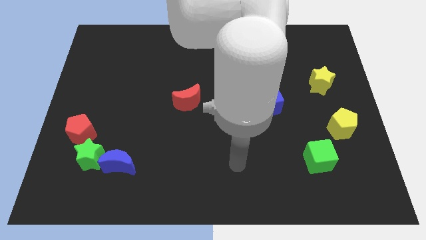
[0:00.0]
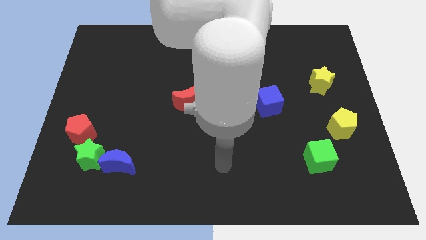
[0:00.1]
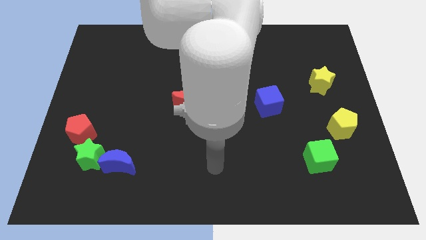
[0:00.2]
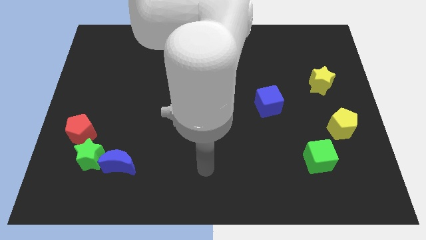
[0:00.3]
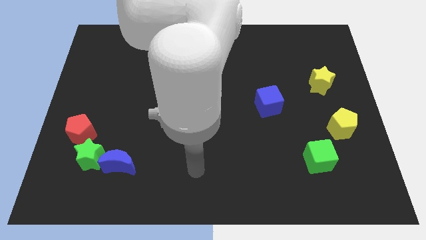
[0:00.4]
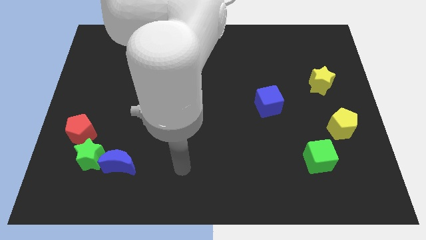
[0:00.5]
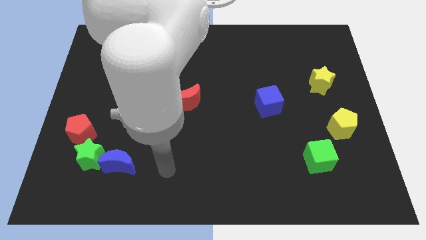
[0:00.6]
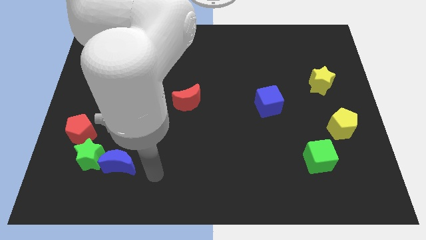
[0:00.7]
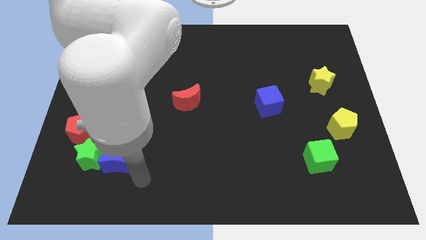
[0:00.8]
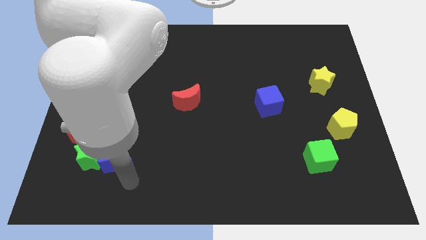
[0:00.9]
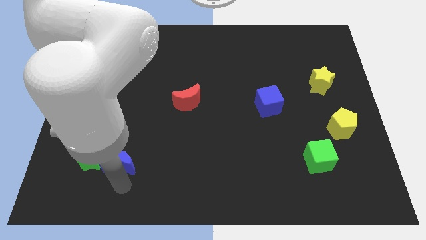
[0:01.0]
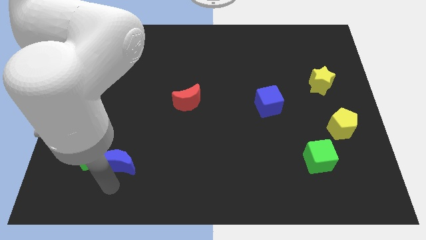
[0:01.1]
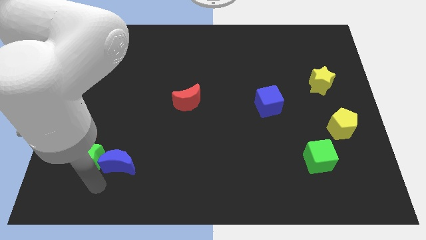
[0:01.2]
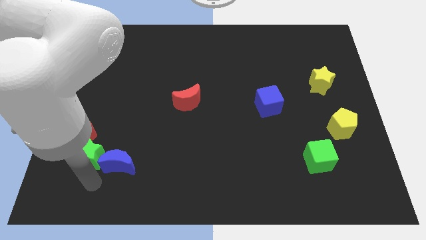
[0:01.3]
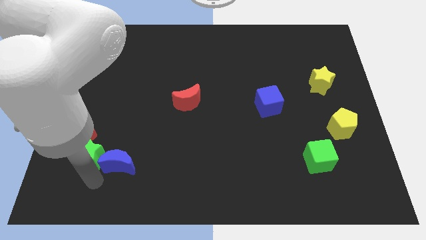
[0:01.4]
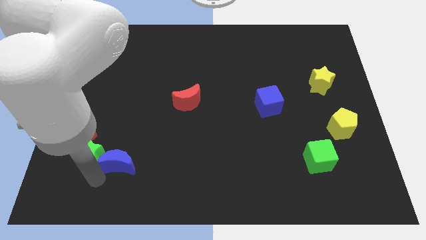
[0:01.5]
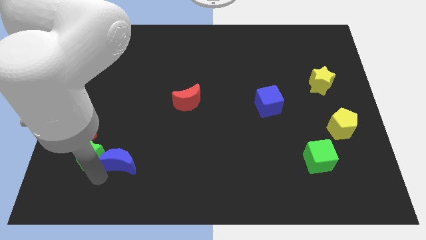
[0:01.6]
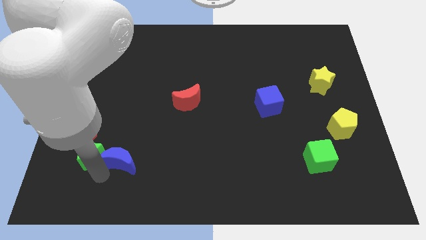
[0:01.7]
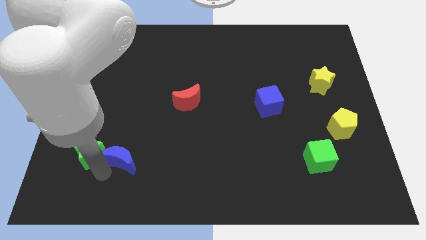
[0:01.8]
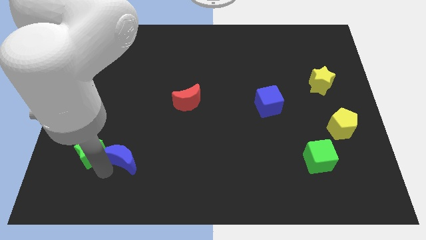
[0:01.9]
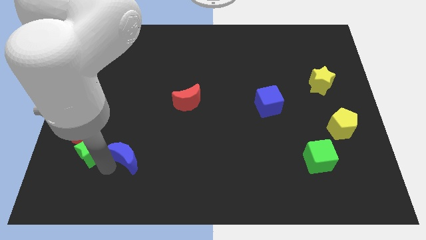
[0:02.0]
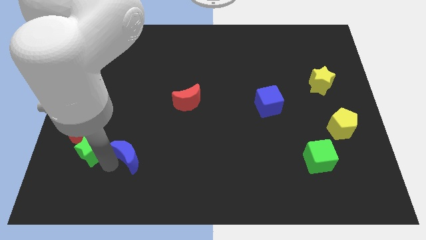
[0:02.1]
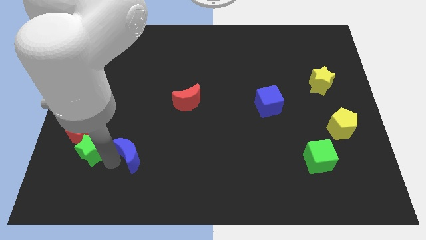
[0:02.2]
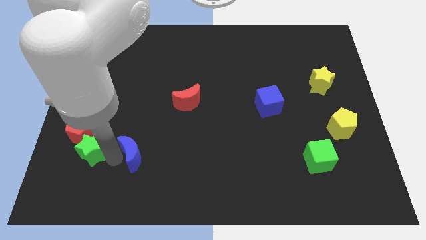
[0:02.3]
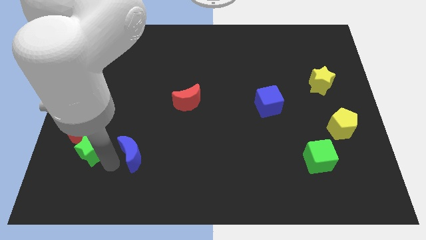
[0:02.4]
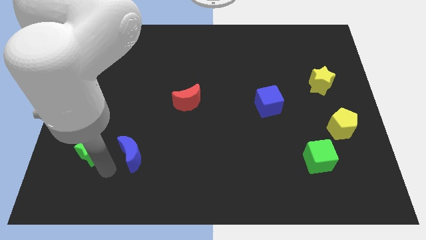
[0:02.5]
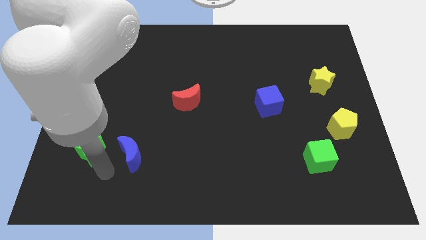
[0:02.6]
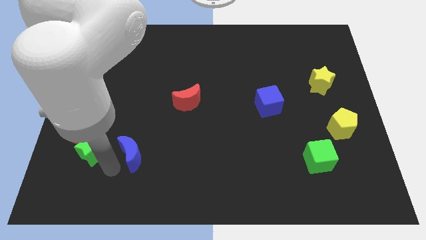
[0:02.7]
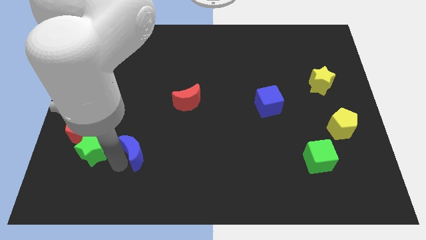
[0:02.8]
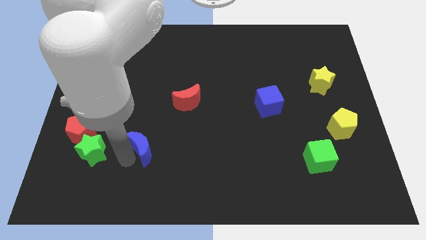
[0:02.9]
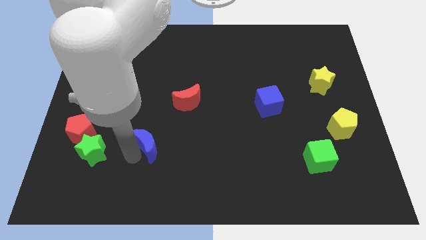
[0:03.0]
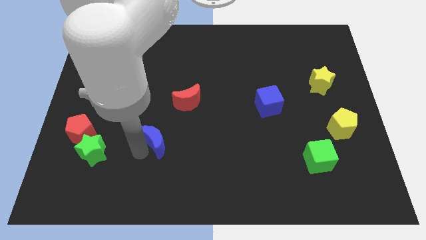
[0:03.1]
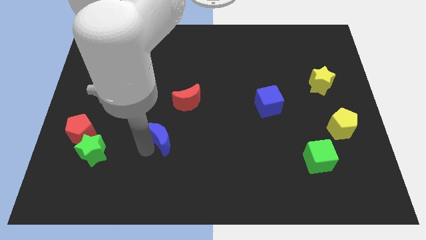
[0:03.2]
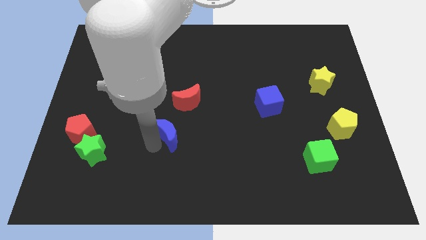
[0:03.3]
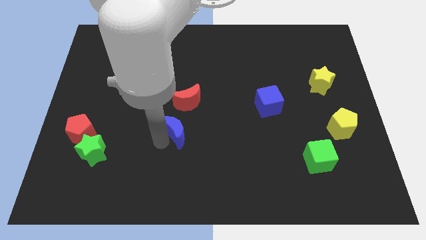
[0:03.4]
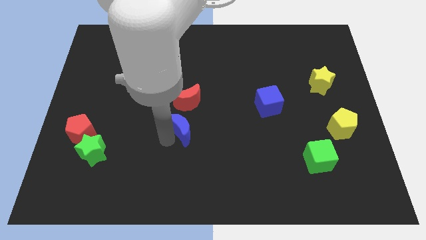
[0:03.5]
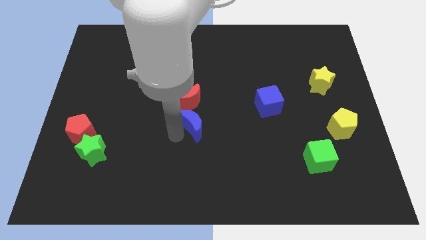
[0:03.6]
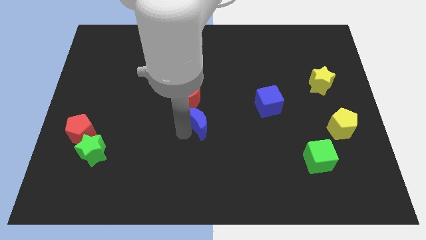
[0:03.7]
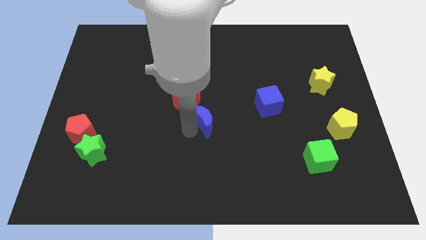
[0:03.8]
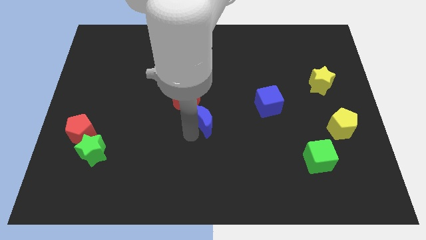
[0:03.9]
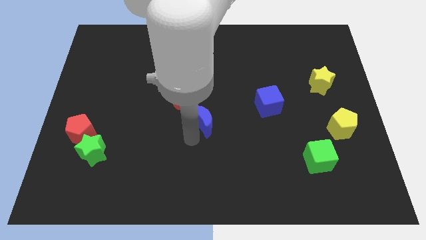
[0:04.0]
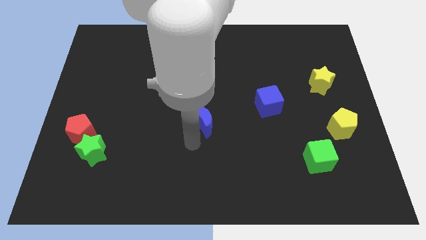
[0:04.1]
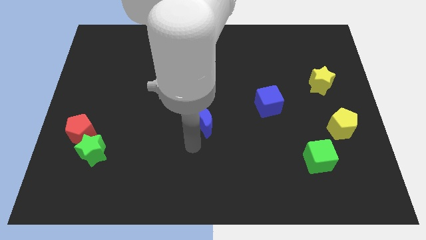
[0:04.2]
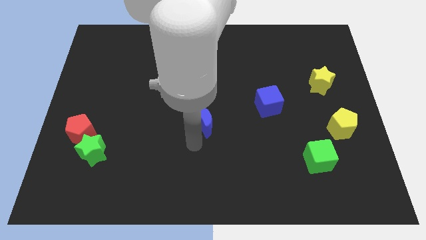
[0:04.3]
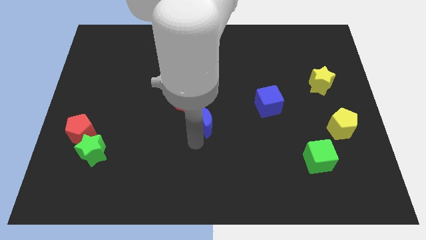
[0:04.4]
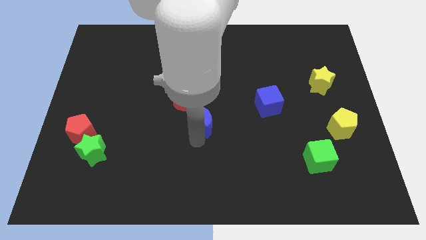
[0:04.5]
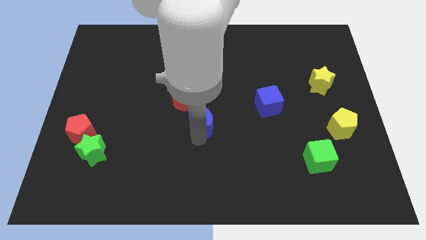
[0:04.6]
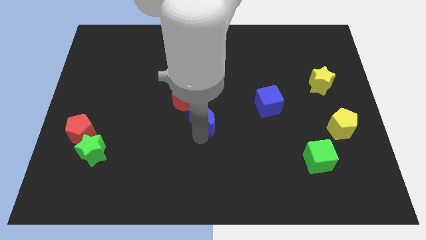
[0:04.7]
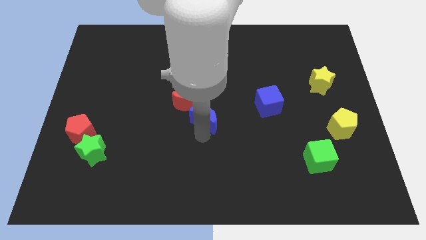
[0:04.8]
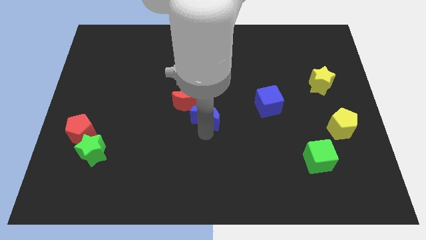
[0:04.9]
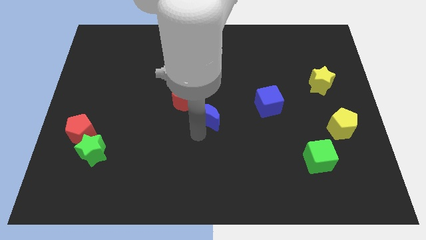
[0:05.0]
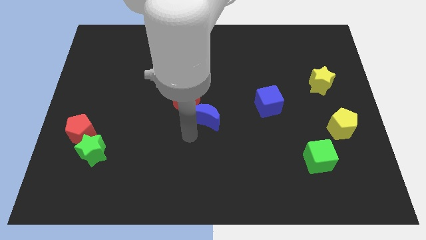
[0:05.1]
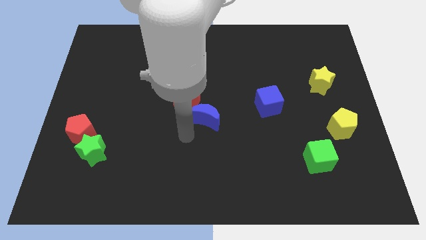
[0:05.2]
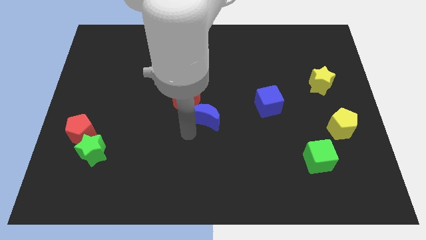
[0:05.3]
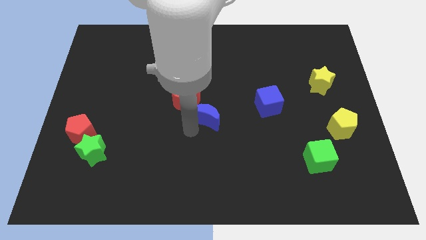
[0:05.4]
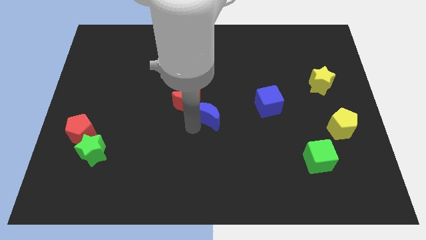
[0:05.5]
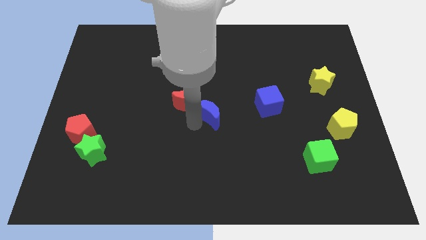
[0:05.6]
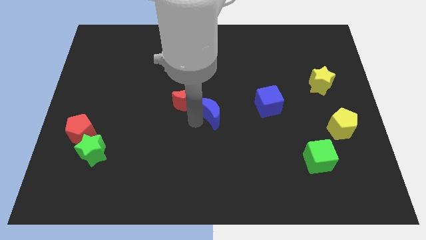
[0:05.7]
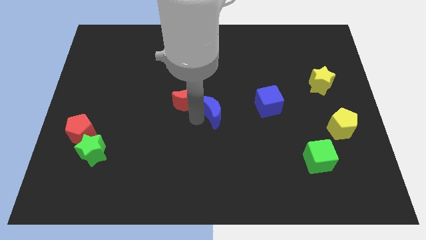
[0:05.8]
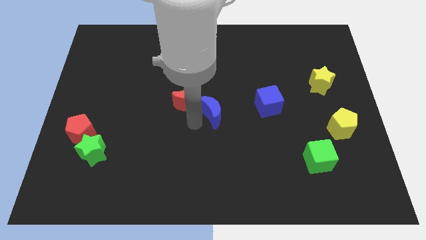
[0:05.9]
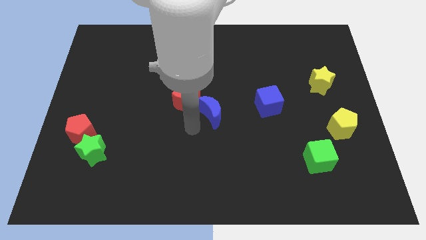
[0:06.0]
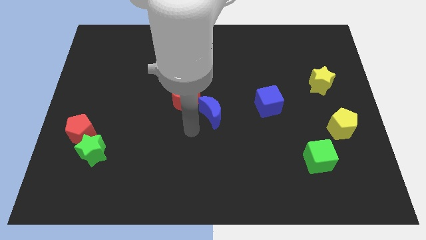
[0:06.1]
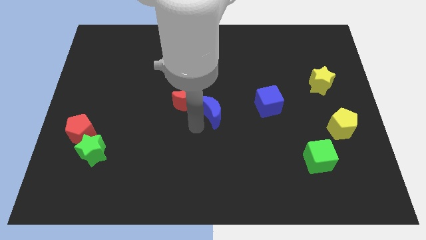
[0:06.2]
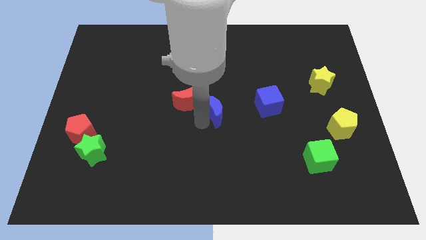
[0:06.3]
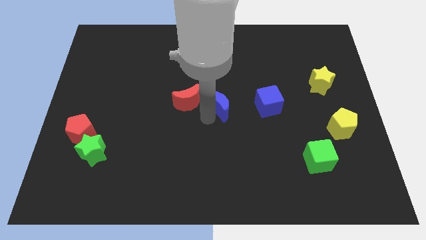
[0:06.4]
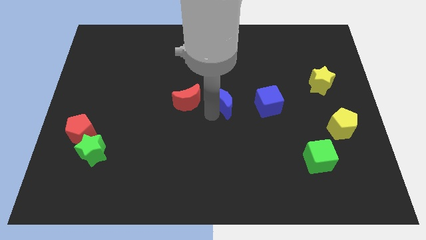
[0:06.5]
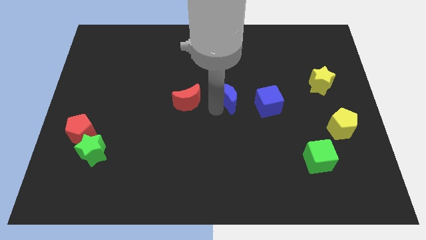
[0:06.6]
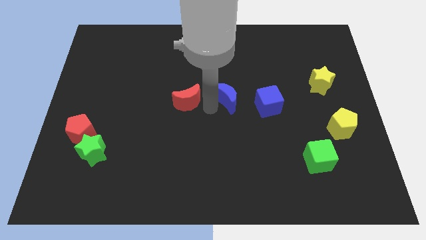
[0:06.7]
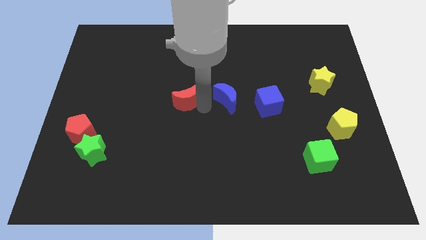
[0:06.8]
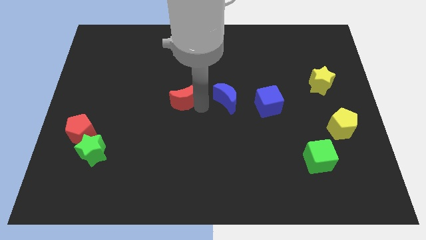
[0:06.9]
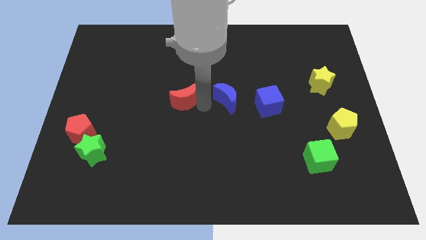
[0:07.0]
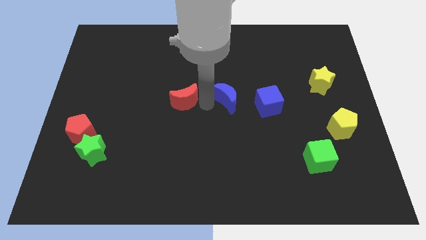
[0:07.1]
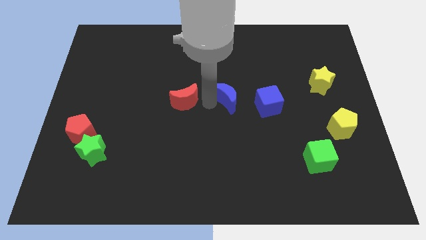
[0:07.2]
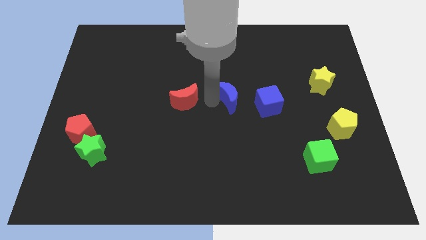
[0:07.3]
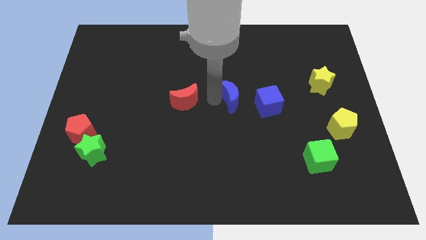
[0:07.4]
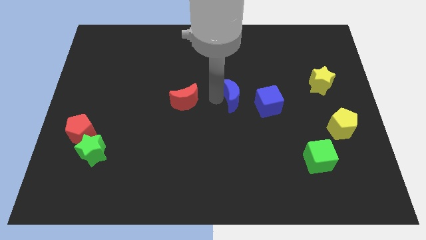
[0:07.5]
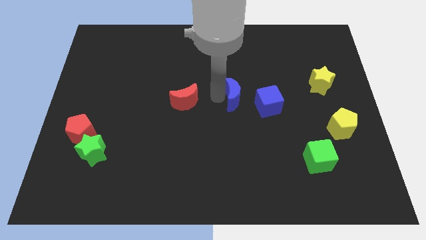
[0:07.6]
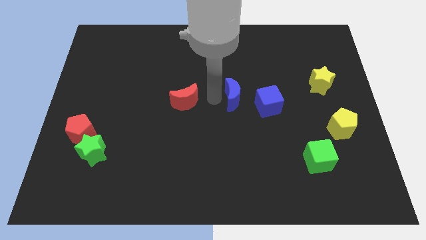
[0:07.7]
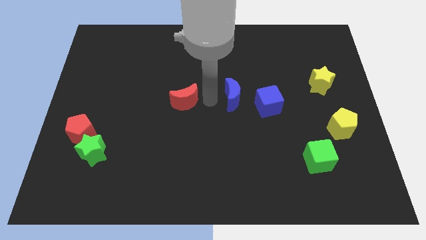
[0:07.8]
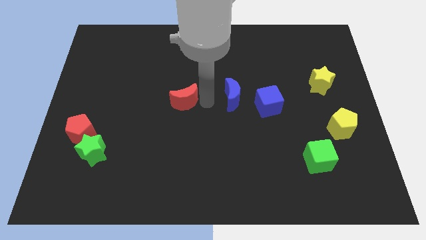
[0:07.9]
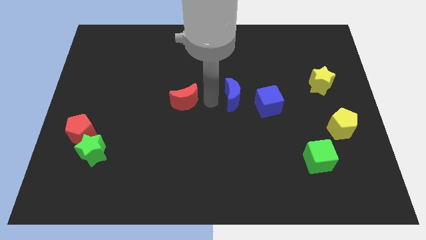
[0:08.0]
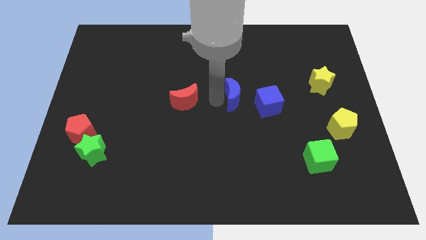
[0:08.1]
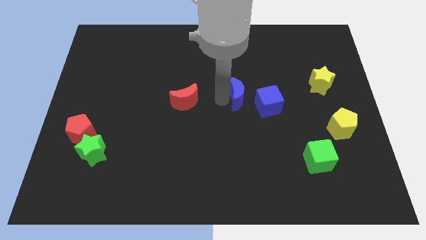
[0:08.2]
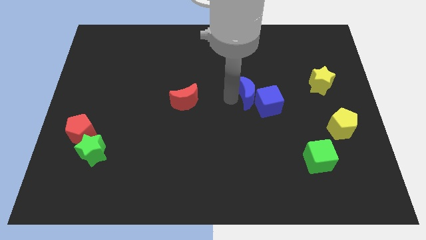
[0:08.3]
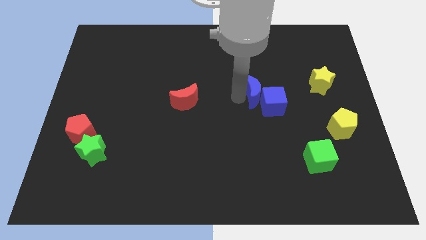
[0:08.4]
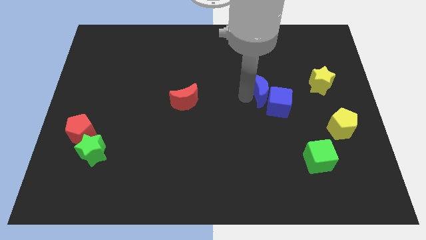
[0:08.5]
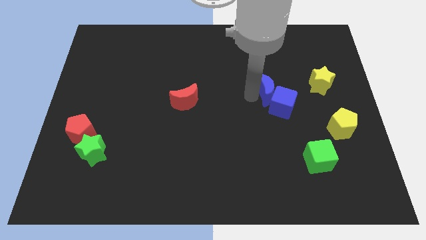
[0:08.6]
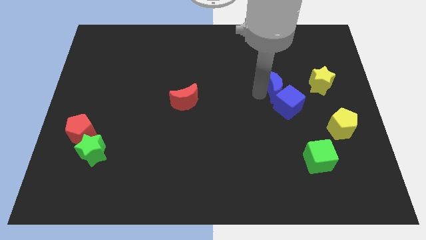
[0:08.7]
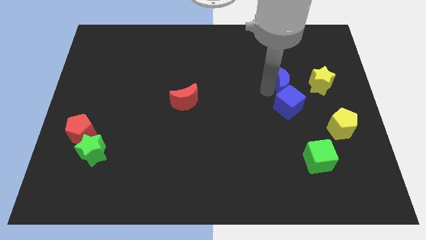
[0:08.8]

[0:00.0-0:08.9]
move the blue moon diagonally up and to the right of the blue cube
